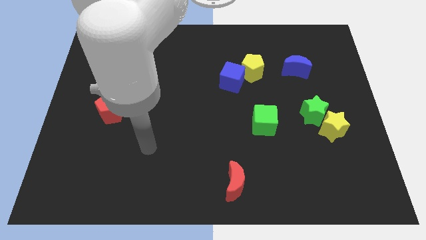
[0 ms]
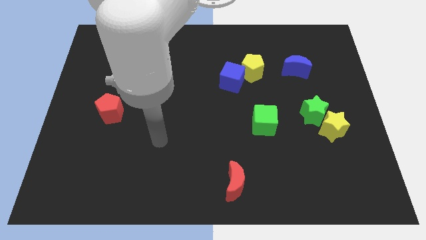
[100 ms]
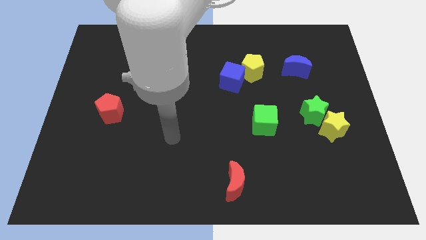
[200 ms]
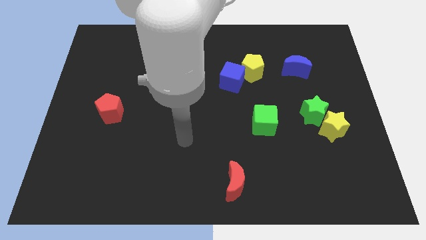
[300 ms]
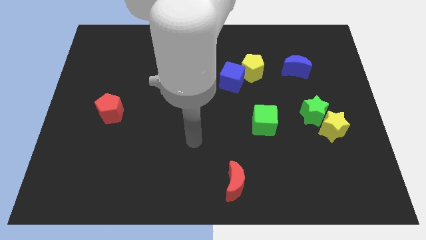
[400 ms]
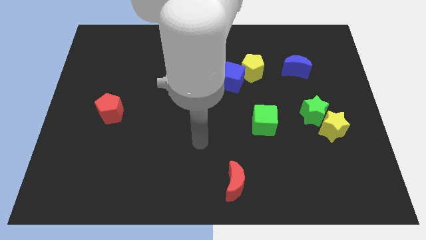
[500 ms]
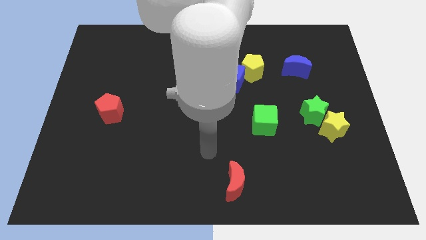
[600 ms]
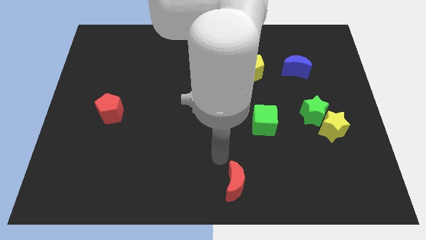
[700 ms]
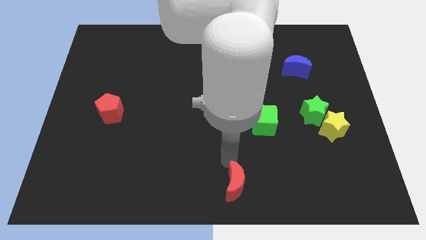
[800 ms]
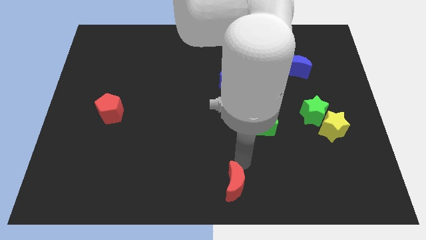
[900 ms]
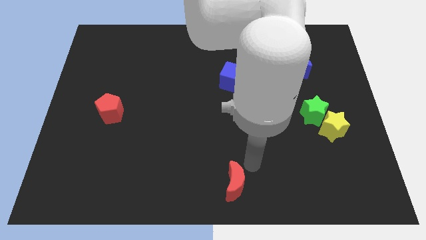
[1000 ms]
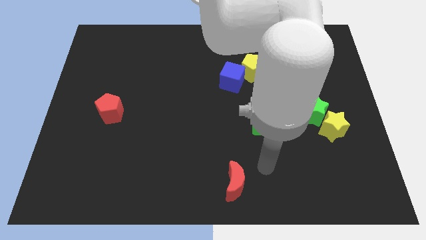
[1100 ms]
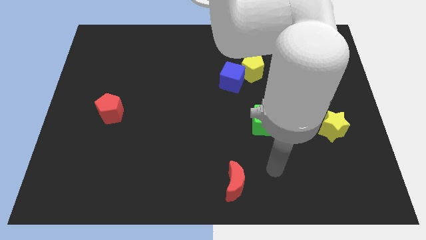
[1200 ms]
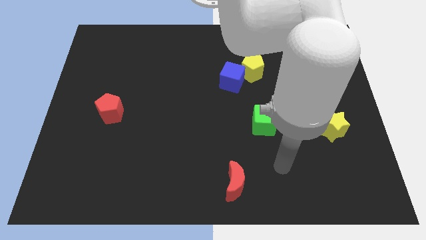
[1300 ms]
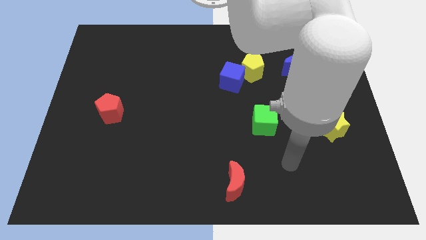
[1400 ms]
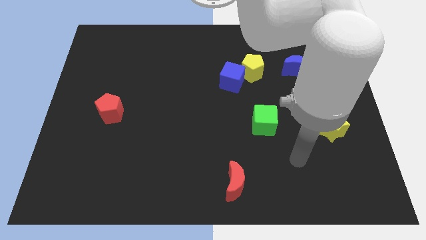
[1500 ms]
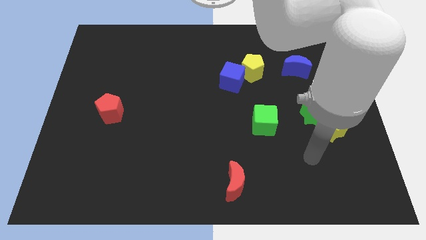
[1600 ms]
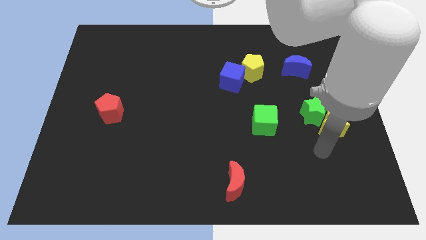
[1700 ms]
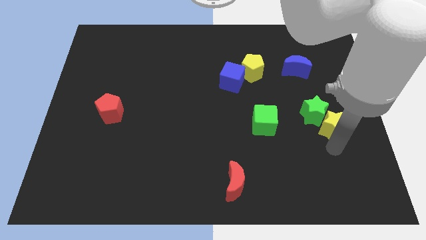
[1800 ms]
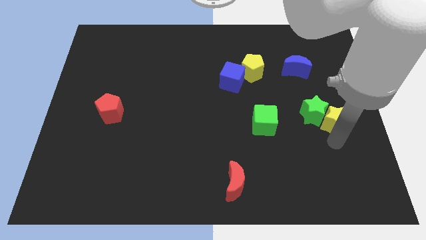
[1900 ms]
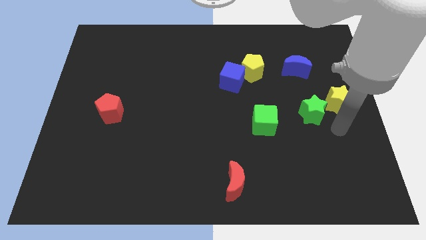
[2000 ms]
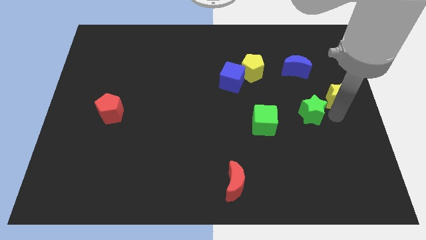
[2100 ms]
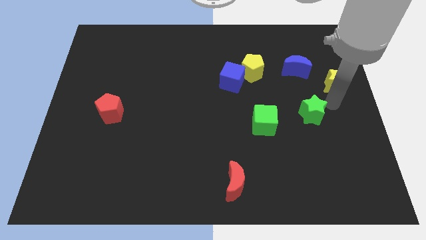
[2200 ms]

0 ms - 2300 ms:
move the green star away from the yellow star

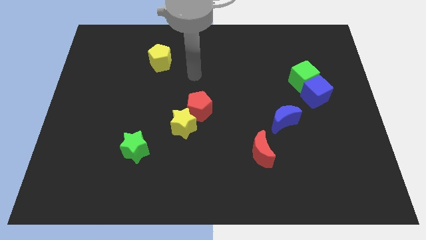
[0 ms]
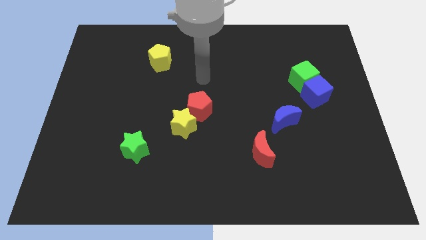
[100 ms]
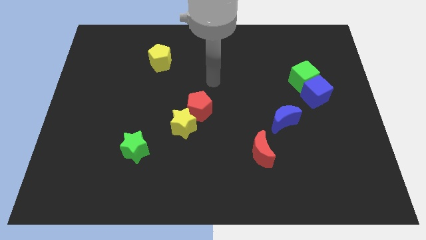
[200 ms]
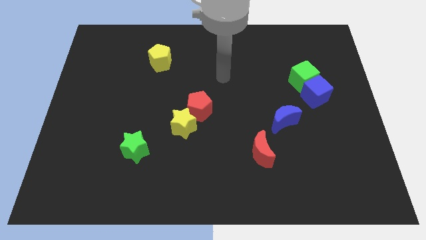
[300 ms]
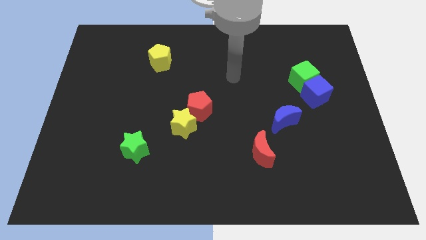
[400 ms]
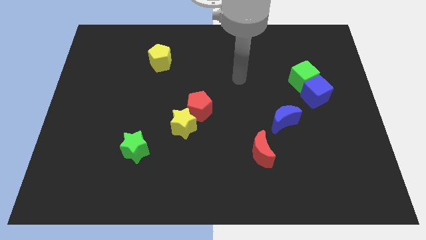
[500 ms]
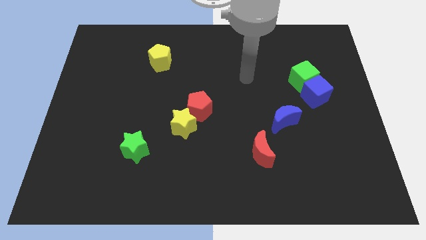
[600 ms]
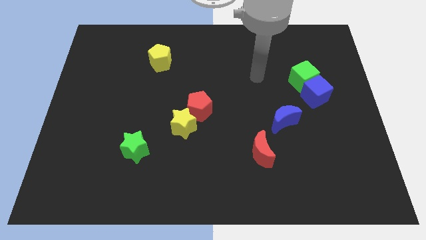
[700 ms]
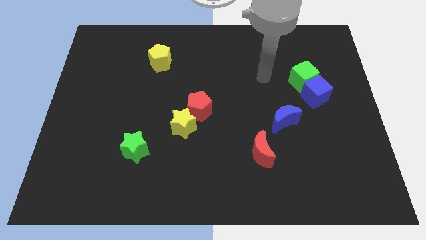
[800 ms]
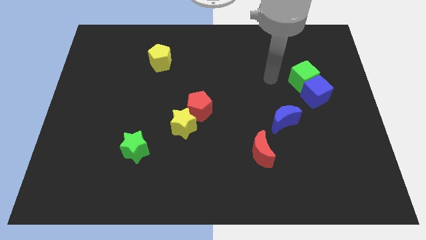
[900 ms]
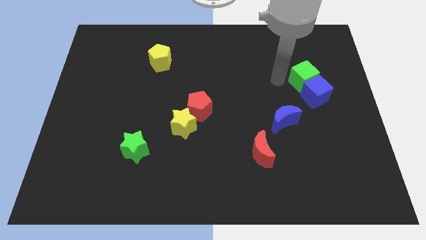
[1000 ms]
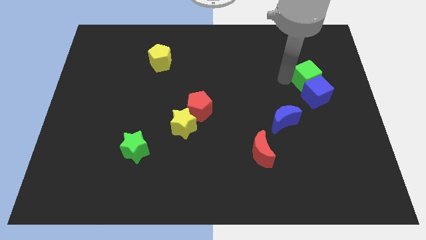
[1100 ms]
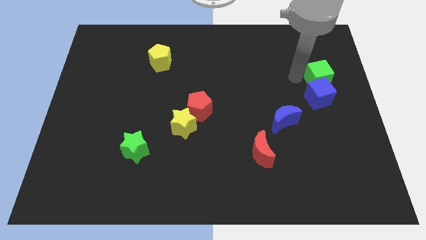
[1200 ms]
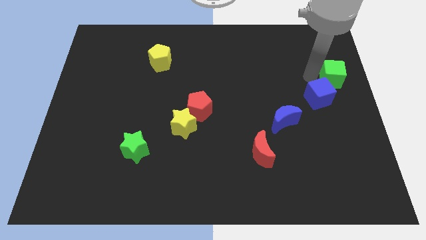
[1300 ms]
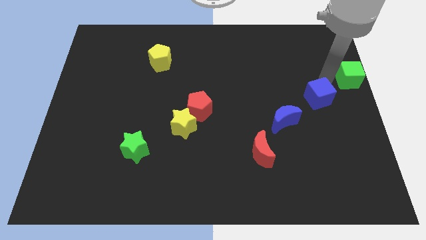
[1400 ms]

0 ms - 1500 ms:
move the blue cube away from the green cube

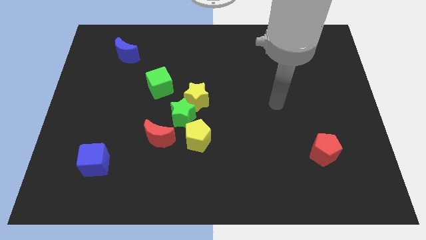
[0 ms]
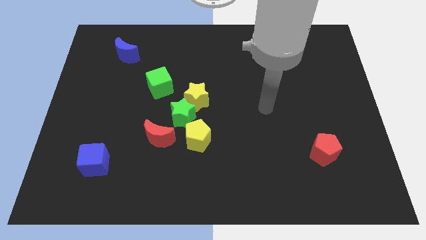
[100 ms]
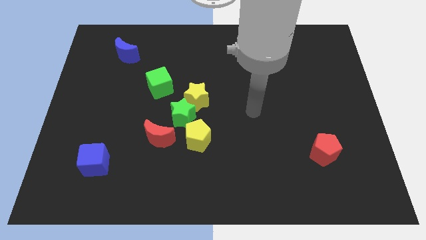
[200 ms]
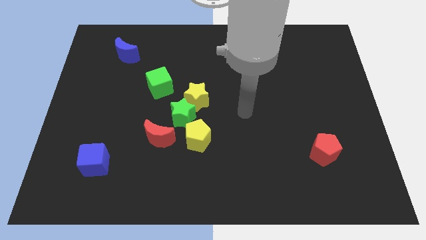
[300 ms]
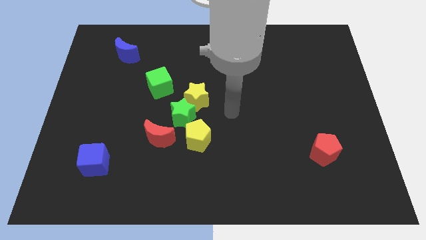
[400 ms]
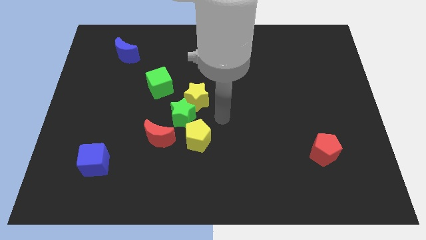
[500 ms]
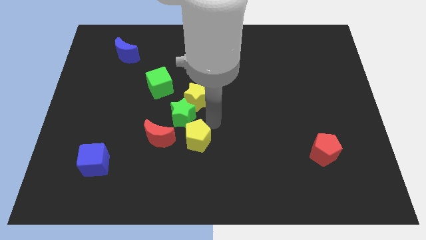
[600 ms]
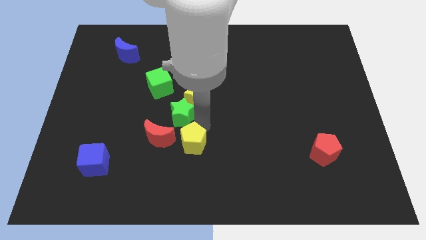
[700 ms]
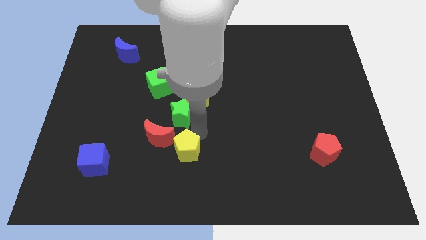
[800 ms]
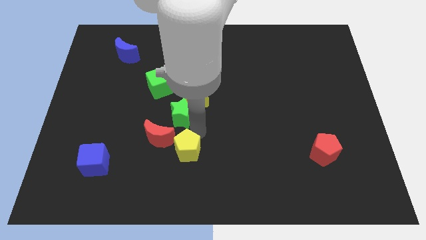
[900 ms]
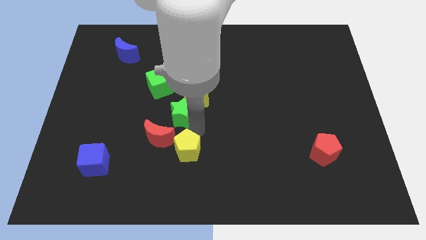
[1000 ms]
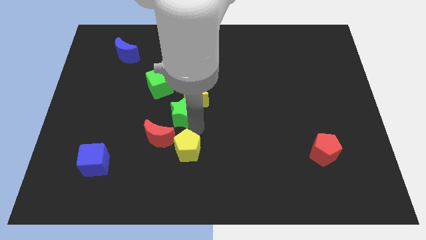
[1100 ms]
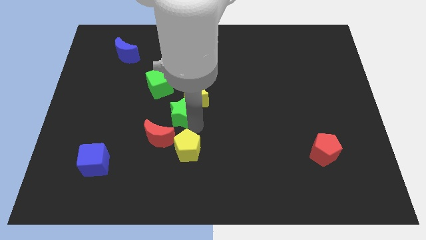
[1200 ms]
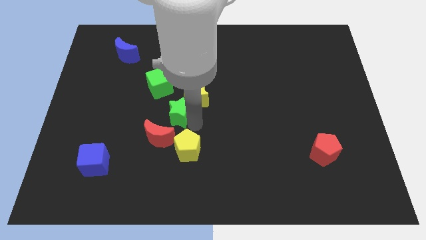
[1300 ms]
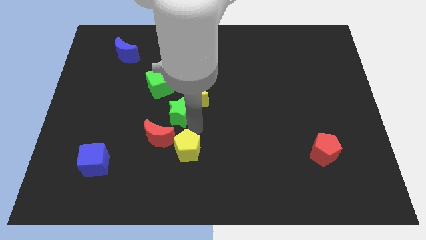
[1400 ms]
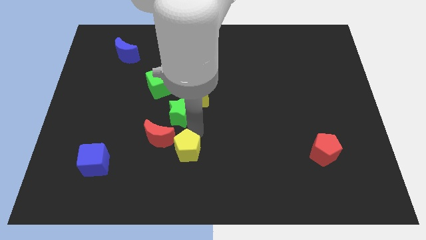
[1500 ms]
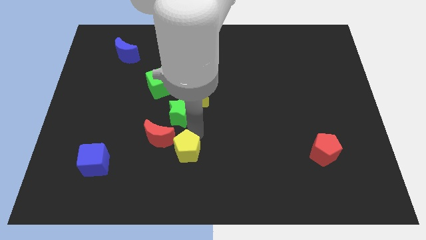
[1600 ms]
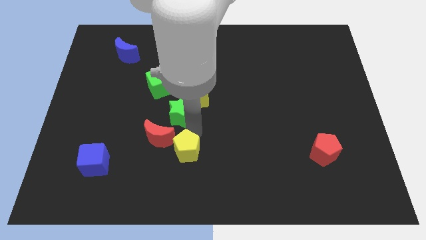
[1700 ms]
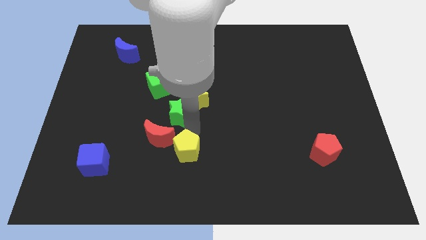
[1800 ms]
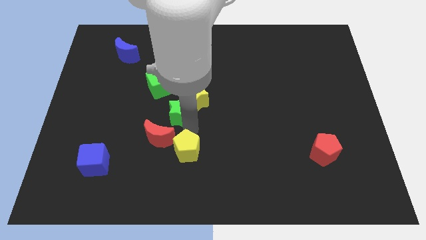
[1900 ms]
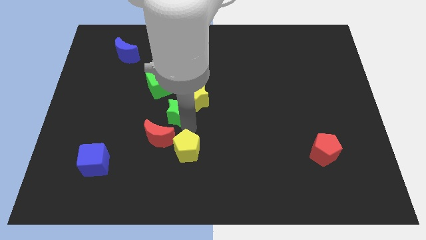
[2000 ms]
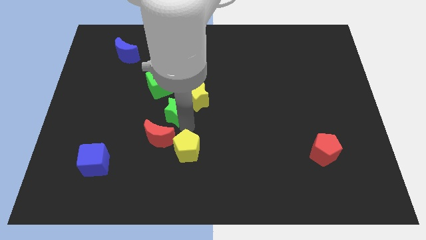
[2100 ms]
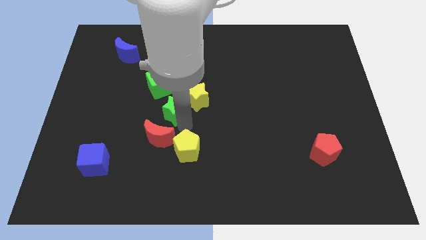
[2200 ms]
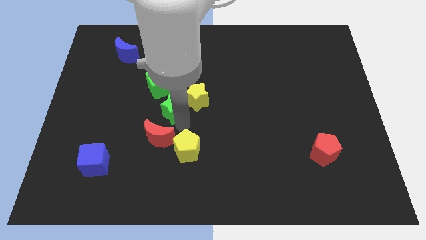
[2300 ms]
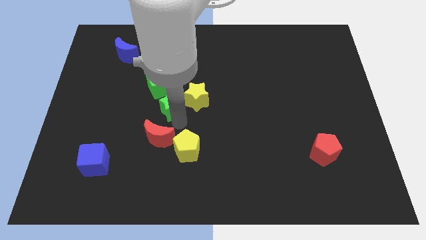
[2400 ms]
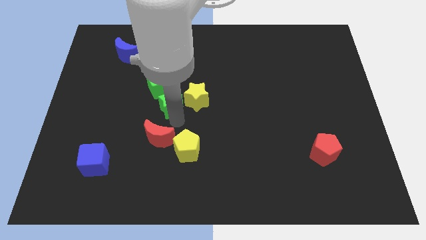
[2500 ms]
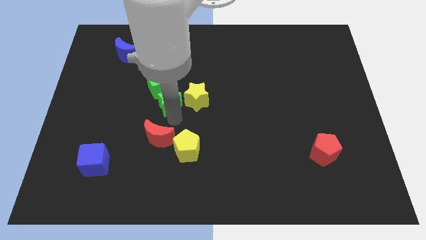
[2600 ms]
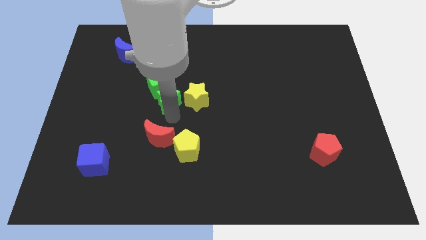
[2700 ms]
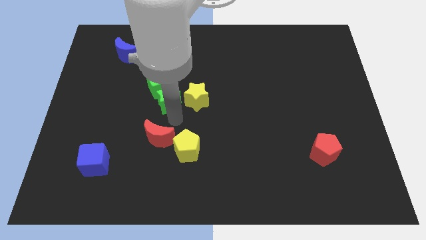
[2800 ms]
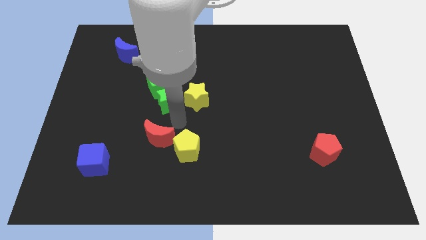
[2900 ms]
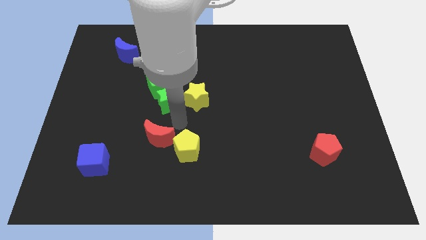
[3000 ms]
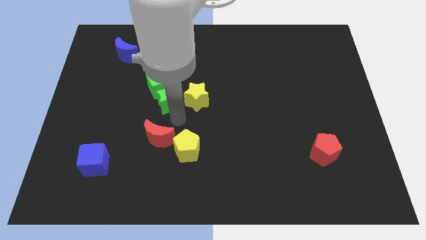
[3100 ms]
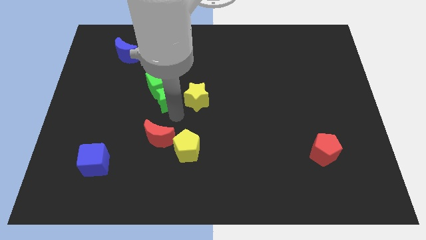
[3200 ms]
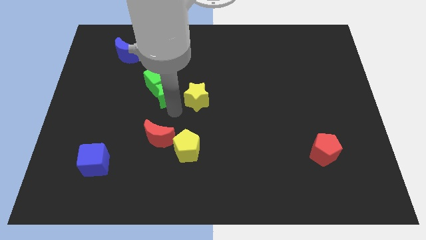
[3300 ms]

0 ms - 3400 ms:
move the green star away from the group of blocks

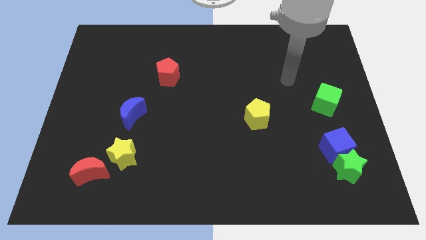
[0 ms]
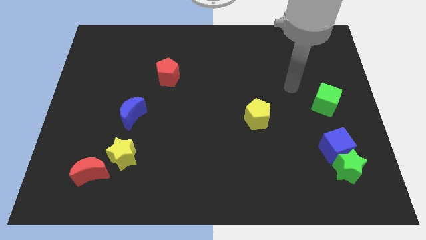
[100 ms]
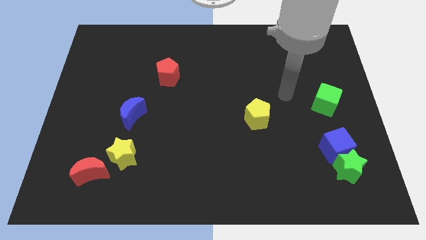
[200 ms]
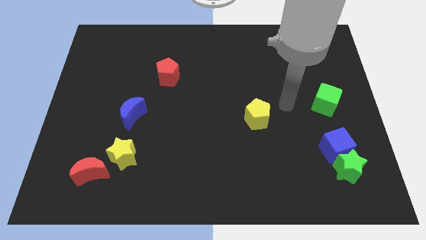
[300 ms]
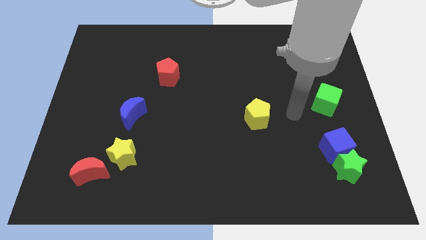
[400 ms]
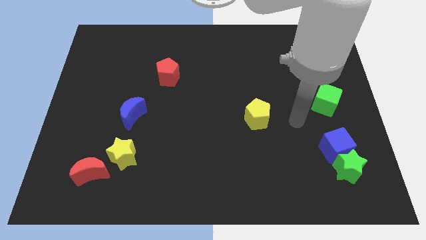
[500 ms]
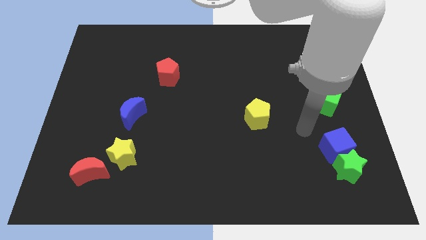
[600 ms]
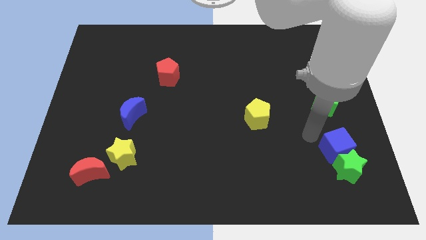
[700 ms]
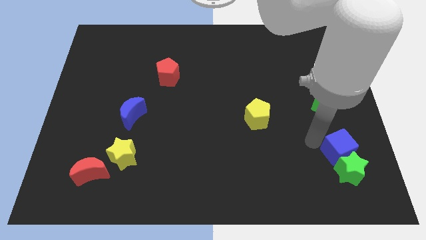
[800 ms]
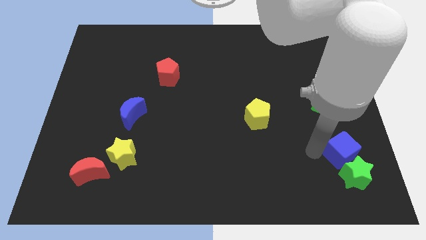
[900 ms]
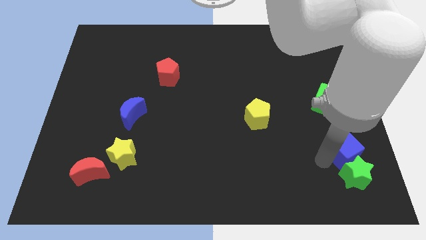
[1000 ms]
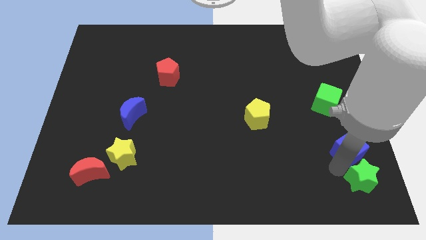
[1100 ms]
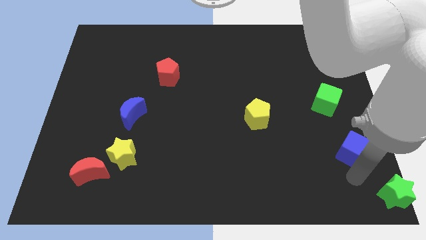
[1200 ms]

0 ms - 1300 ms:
pull the blue cube apart from the green star

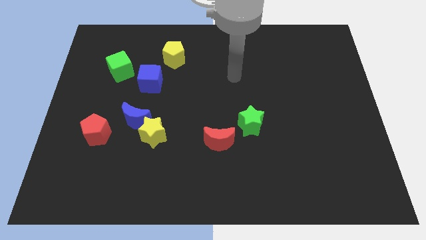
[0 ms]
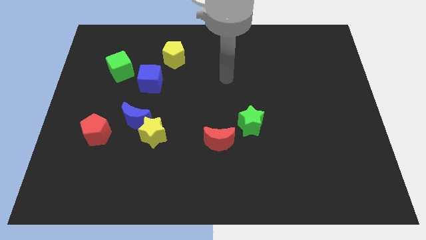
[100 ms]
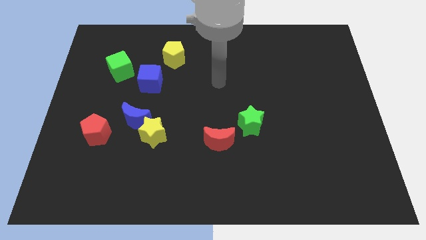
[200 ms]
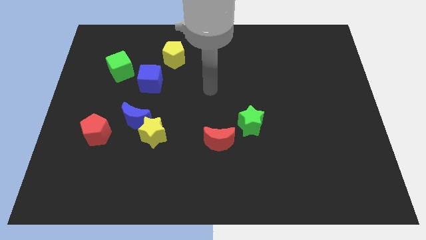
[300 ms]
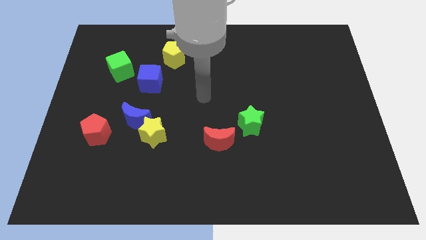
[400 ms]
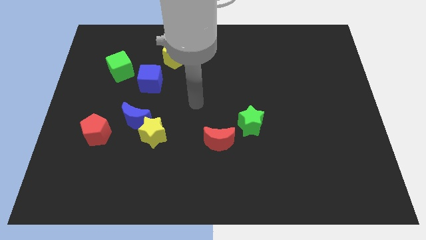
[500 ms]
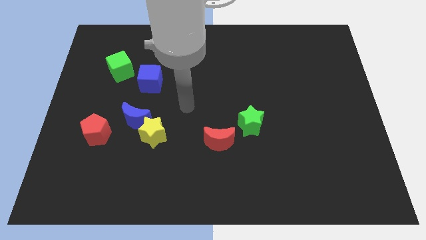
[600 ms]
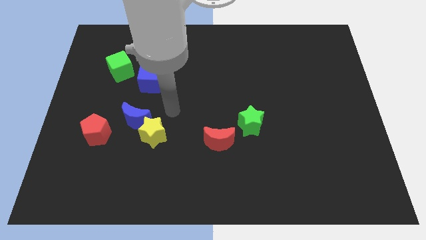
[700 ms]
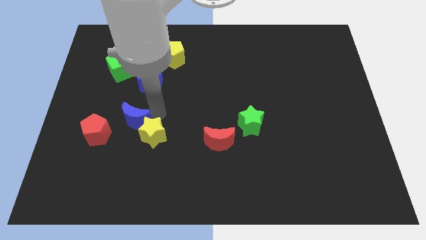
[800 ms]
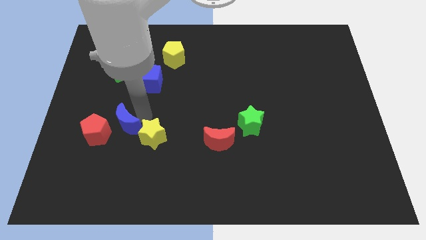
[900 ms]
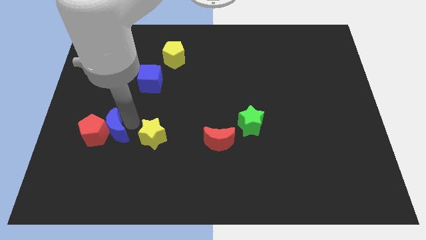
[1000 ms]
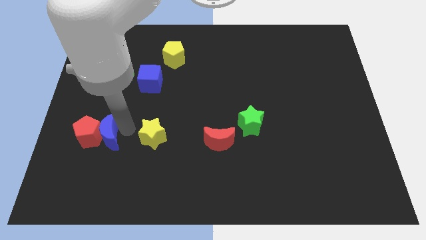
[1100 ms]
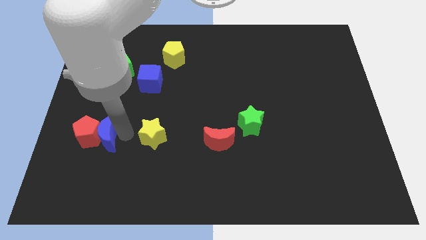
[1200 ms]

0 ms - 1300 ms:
pull the yellow star apart from the blue moon
